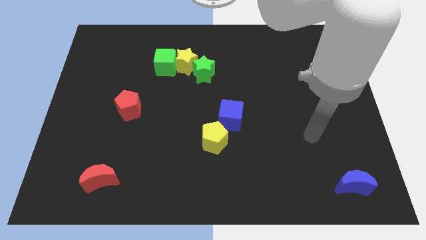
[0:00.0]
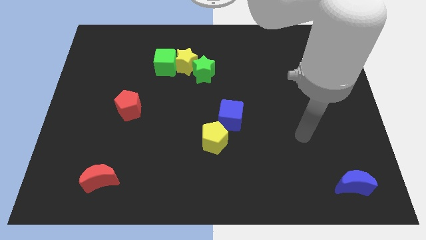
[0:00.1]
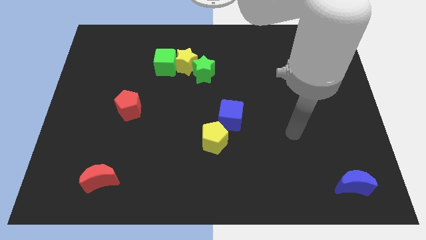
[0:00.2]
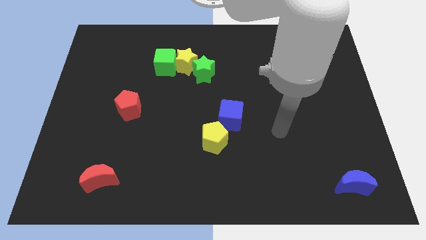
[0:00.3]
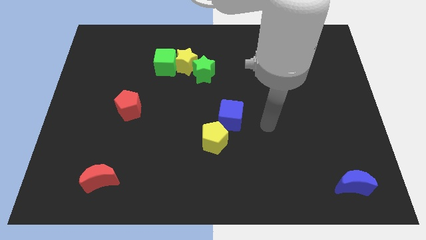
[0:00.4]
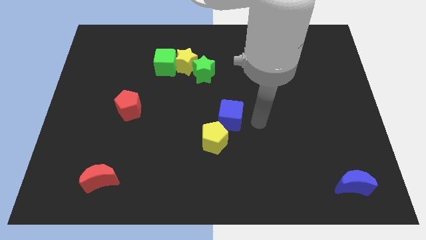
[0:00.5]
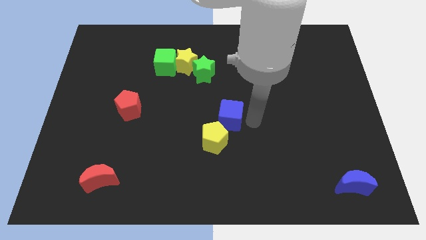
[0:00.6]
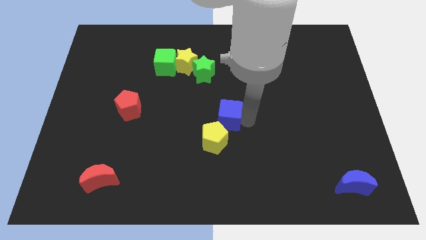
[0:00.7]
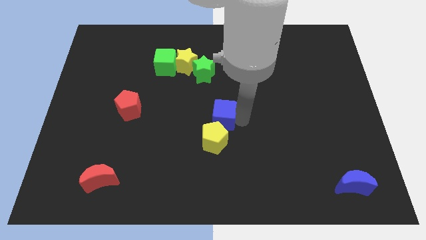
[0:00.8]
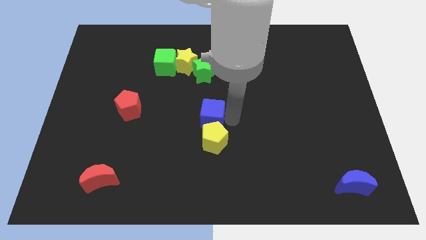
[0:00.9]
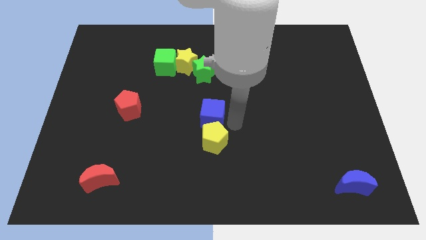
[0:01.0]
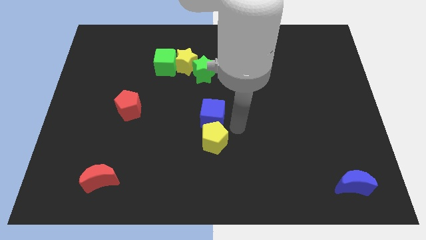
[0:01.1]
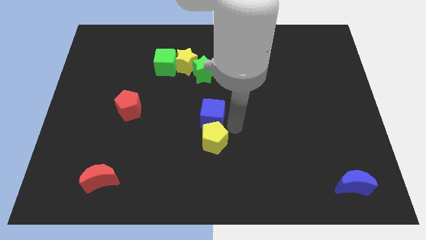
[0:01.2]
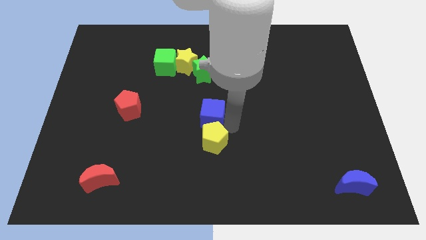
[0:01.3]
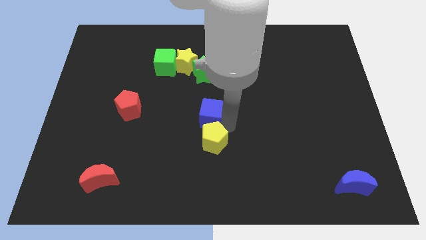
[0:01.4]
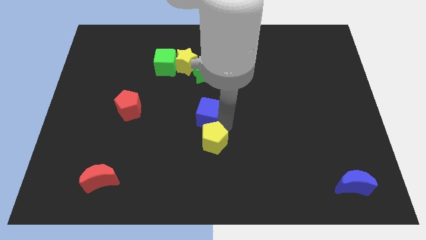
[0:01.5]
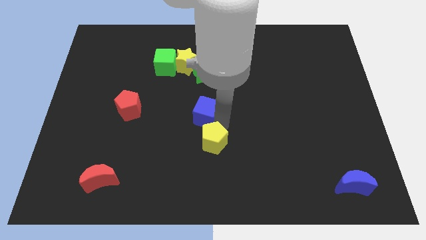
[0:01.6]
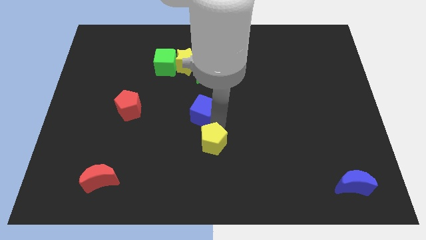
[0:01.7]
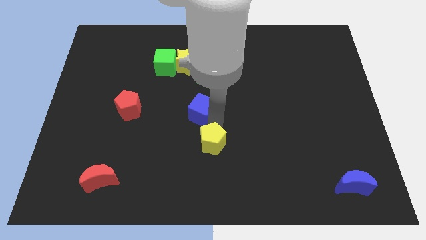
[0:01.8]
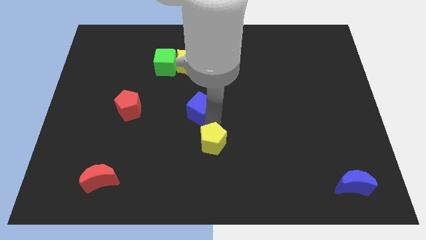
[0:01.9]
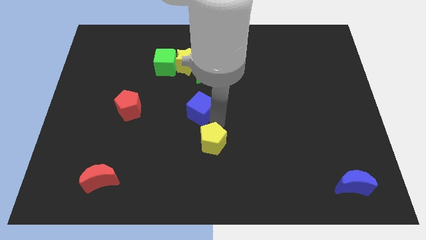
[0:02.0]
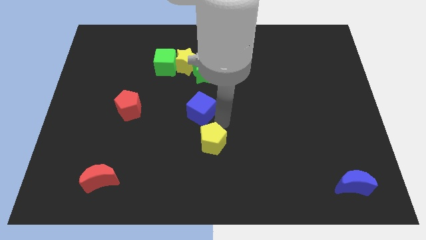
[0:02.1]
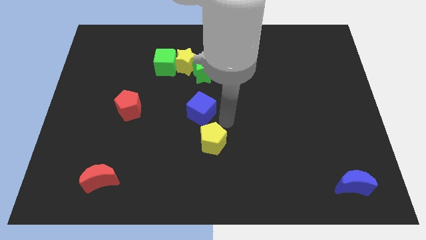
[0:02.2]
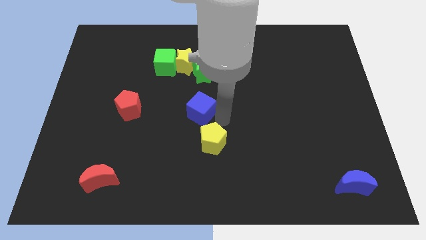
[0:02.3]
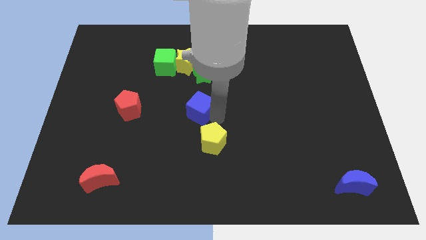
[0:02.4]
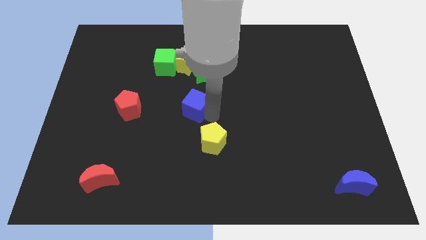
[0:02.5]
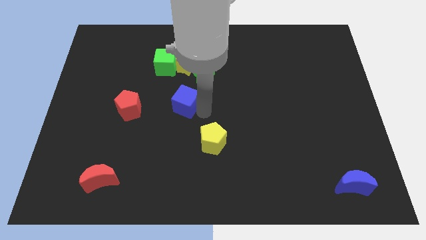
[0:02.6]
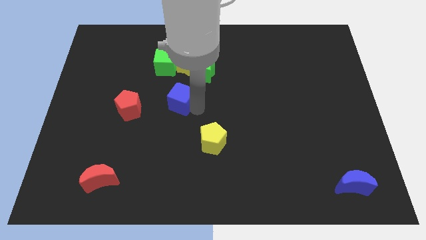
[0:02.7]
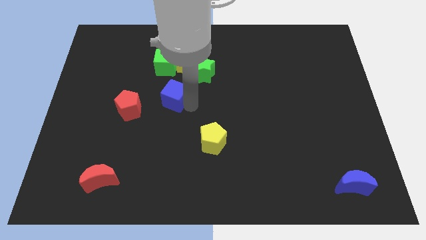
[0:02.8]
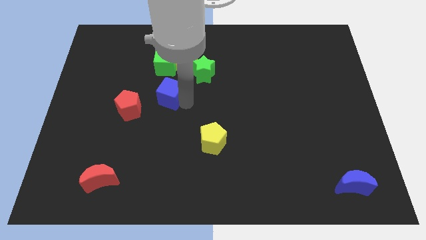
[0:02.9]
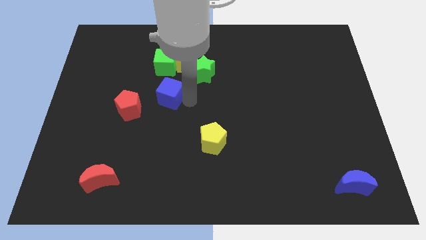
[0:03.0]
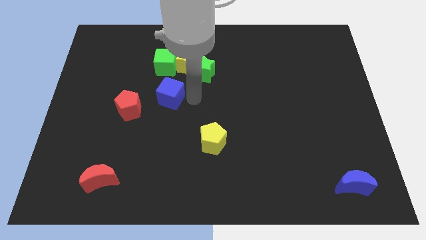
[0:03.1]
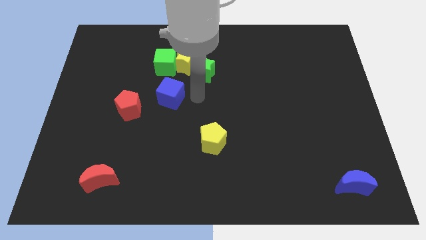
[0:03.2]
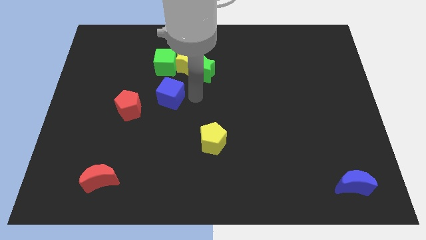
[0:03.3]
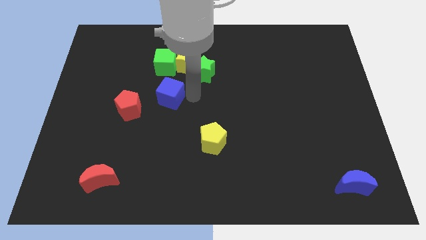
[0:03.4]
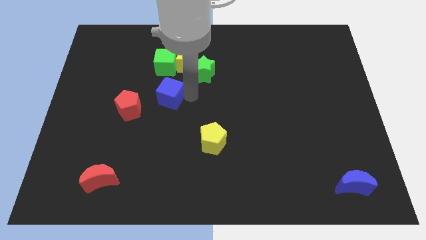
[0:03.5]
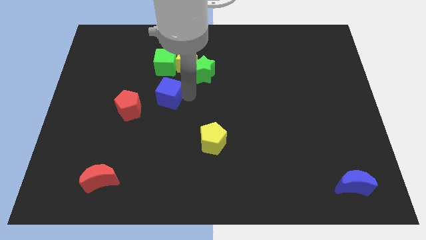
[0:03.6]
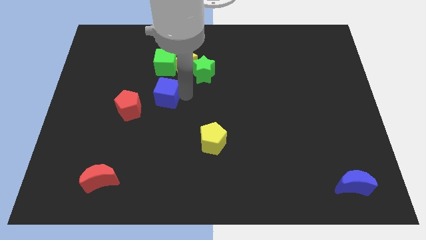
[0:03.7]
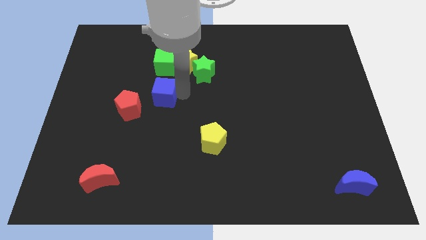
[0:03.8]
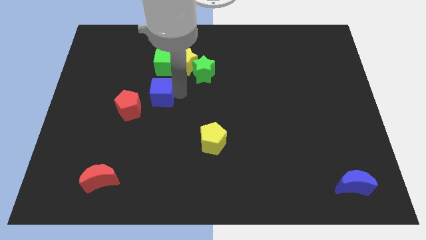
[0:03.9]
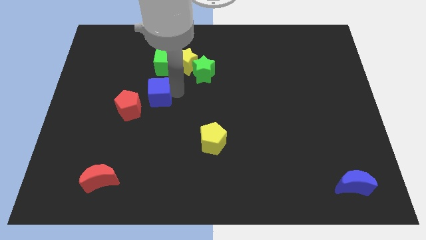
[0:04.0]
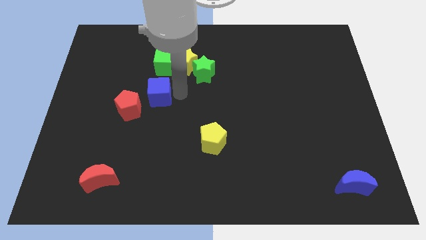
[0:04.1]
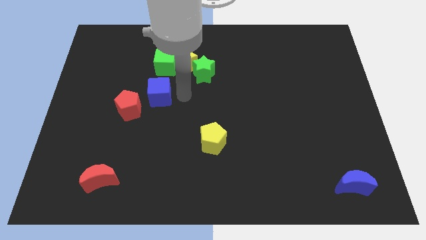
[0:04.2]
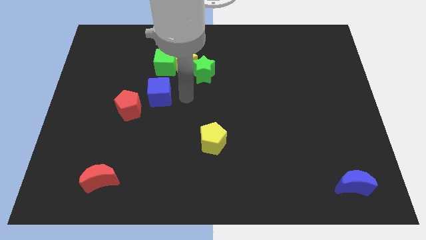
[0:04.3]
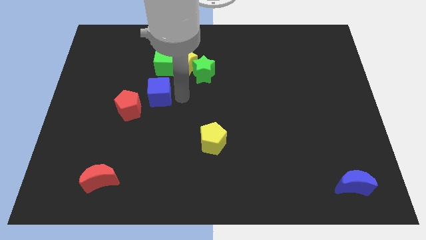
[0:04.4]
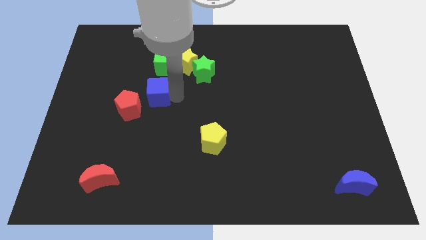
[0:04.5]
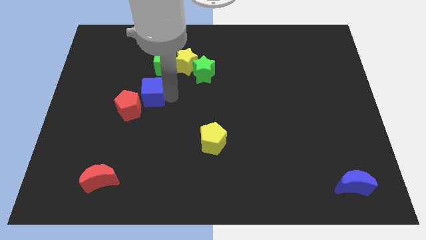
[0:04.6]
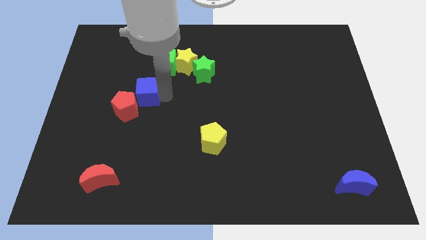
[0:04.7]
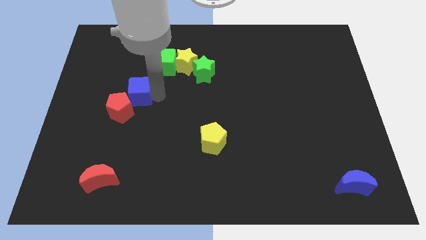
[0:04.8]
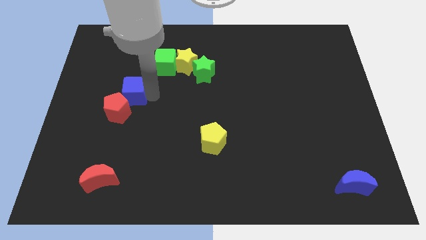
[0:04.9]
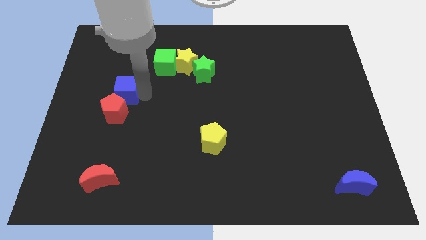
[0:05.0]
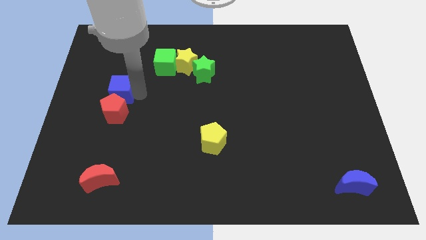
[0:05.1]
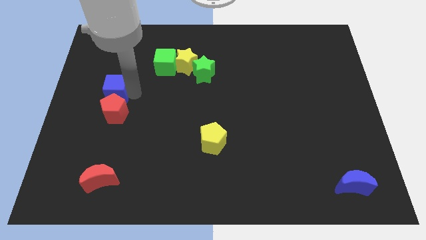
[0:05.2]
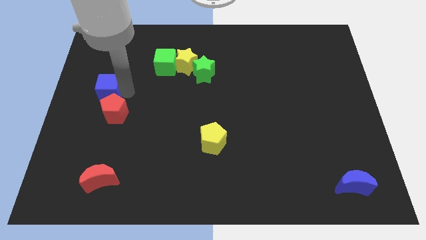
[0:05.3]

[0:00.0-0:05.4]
push the blue cube to the left side

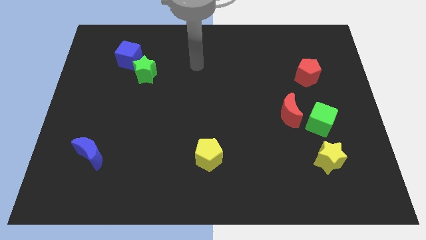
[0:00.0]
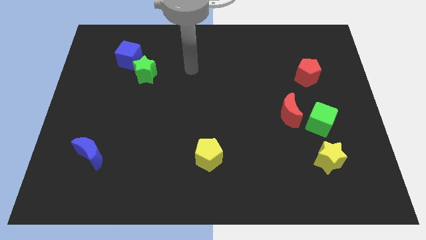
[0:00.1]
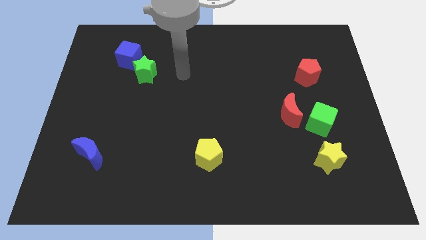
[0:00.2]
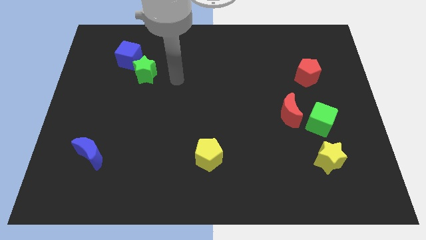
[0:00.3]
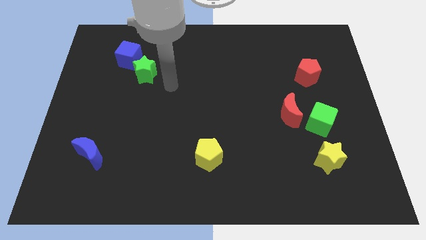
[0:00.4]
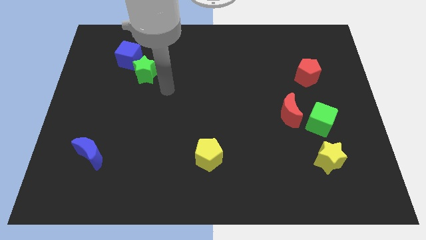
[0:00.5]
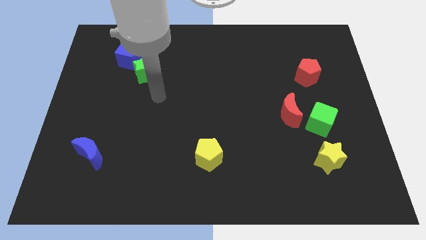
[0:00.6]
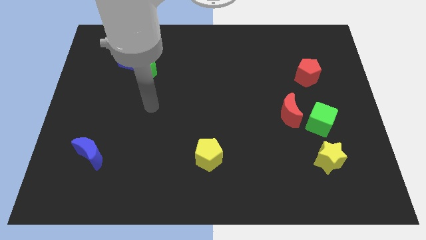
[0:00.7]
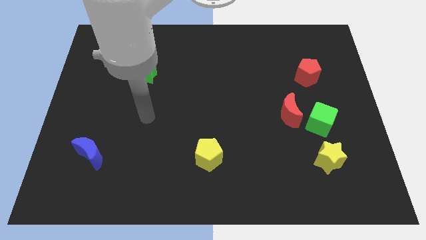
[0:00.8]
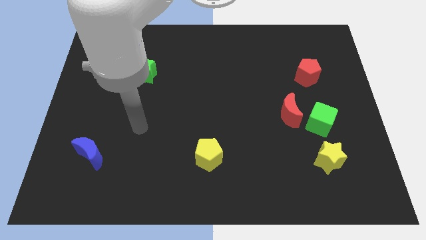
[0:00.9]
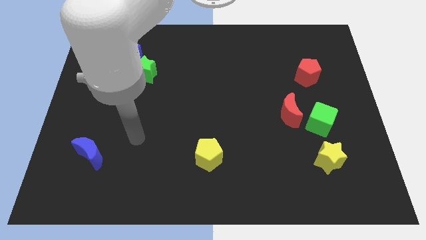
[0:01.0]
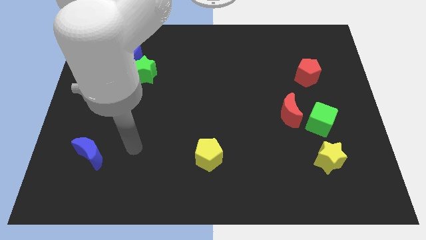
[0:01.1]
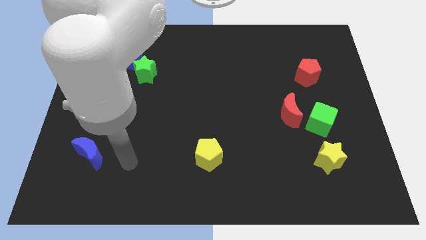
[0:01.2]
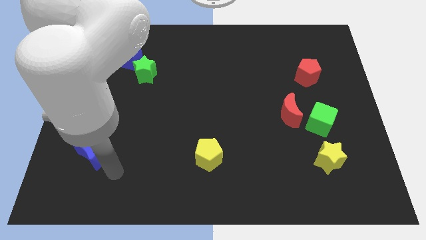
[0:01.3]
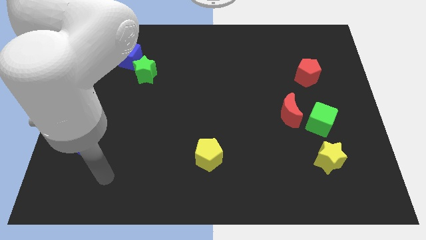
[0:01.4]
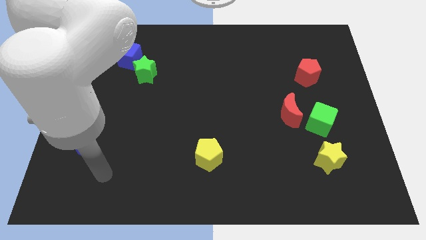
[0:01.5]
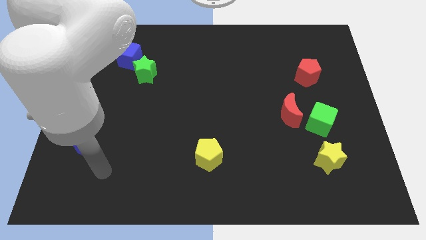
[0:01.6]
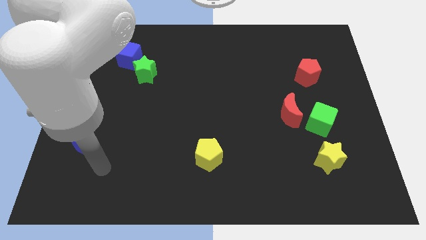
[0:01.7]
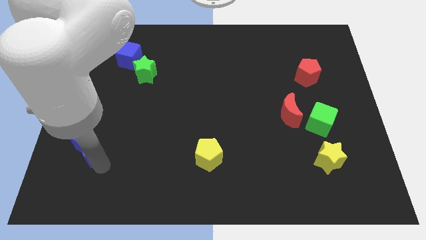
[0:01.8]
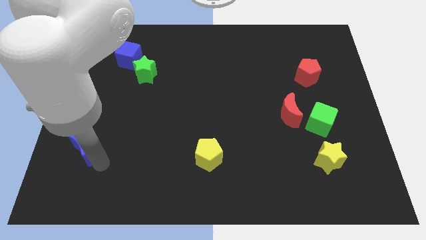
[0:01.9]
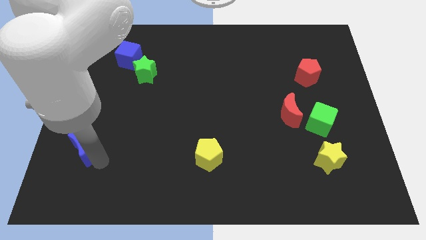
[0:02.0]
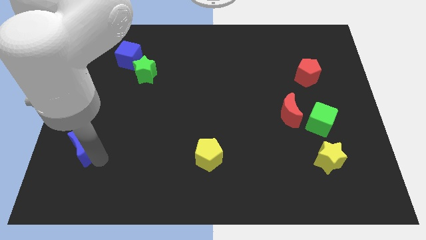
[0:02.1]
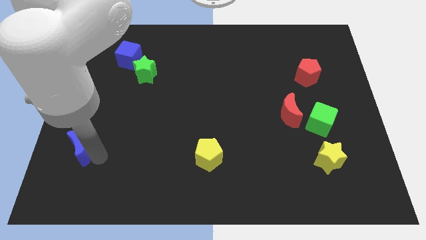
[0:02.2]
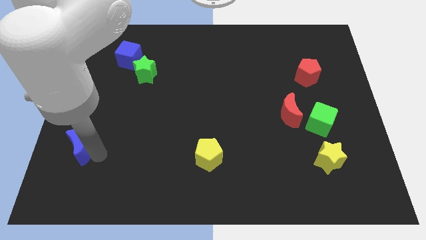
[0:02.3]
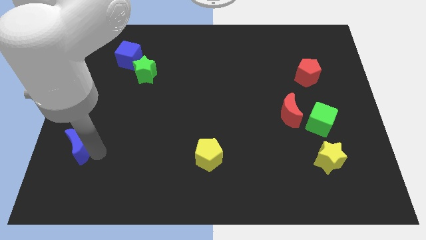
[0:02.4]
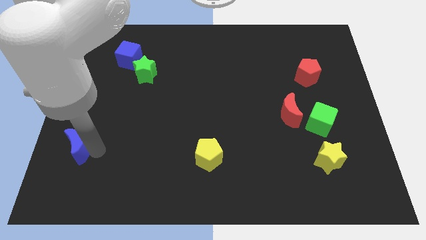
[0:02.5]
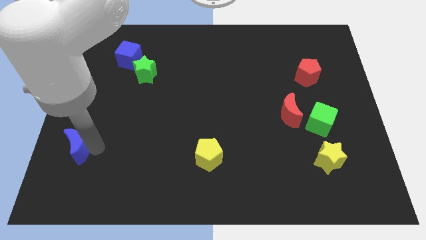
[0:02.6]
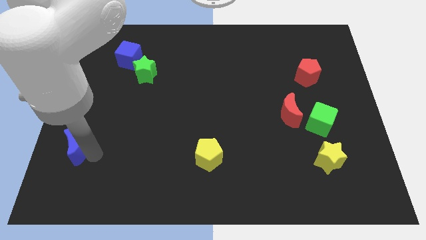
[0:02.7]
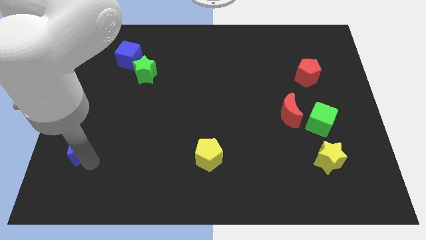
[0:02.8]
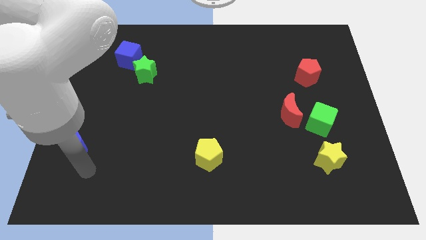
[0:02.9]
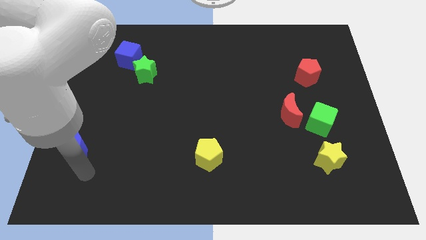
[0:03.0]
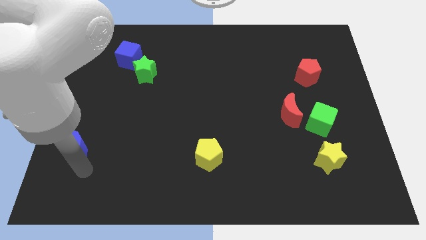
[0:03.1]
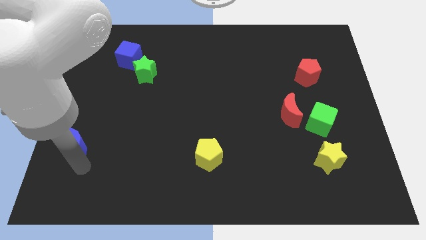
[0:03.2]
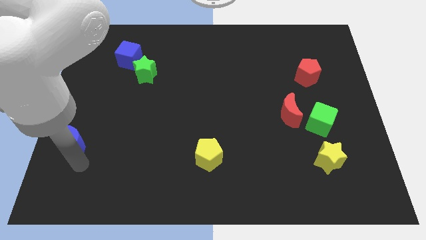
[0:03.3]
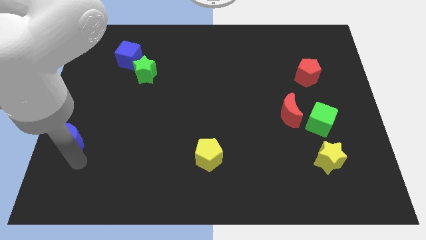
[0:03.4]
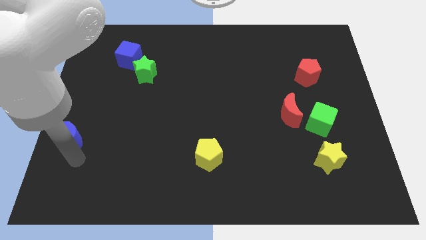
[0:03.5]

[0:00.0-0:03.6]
push the blue moon to the center left
